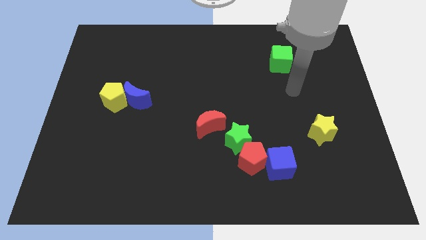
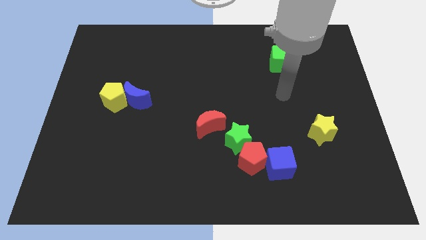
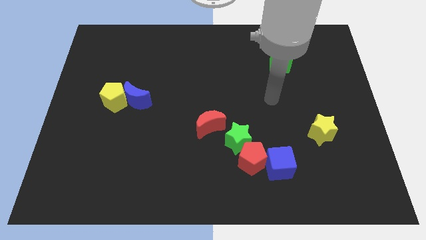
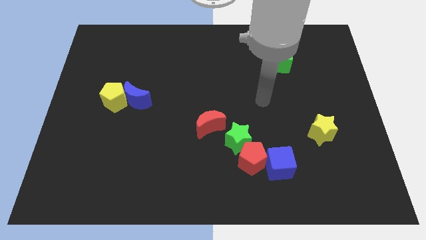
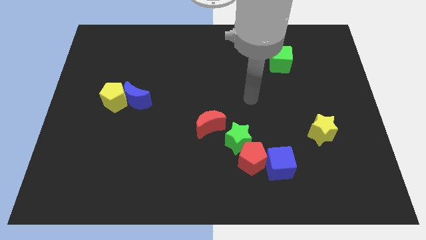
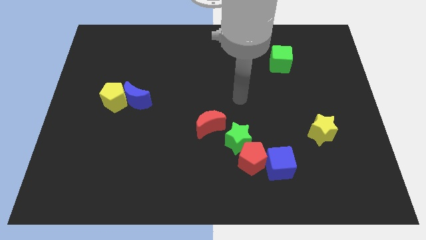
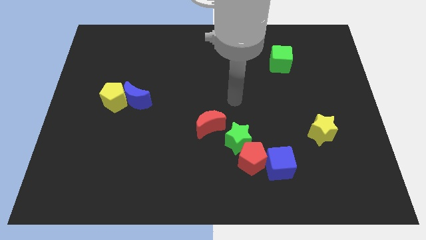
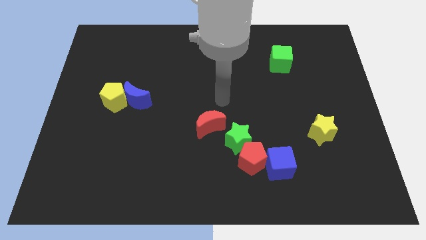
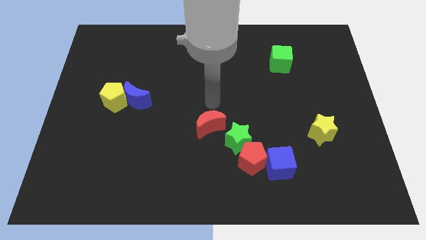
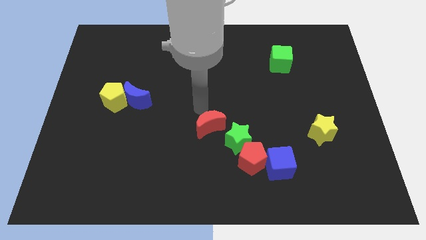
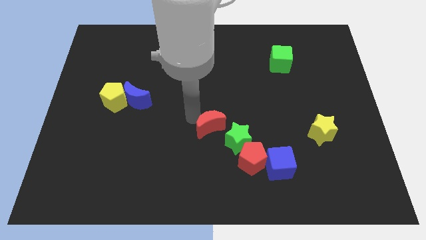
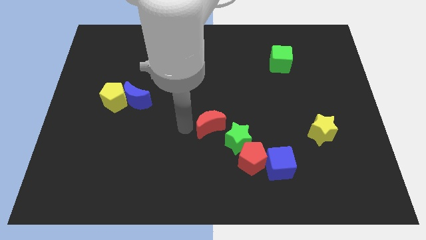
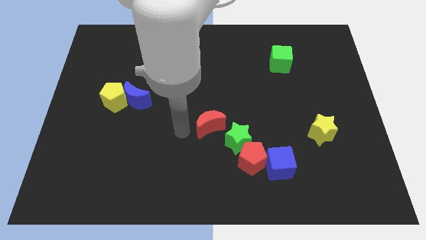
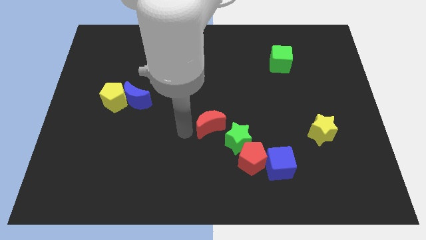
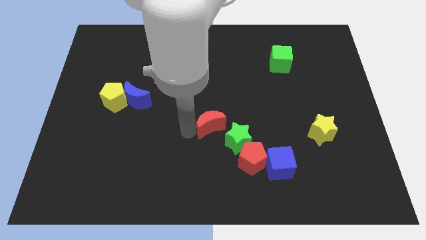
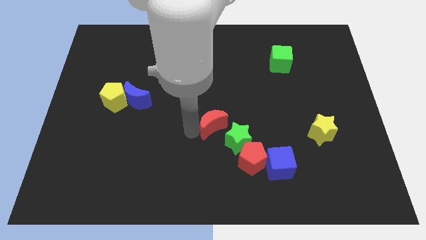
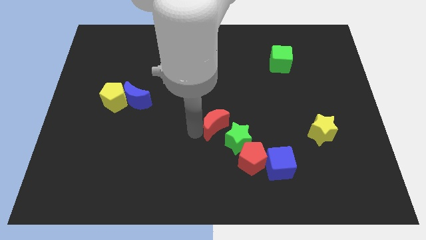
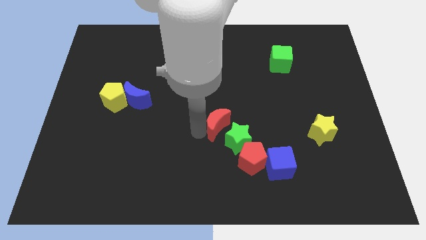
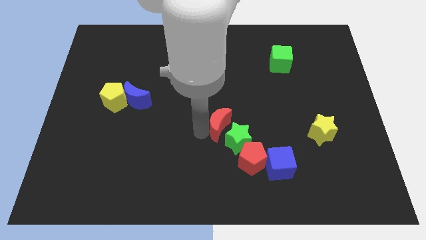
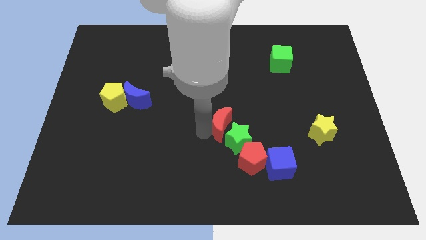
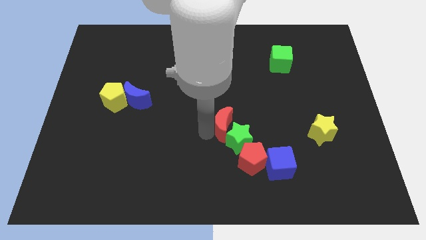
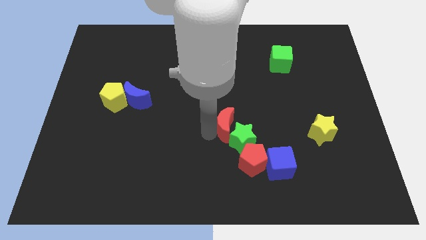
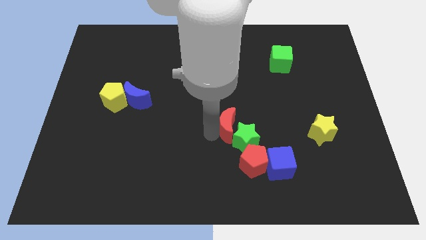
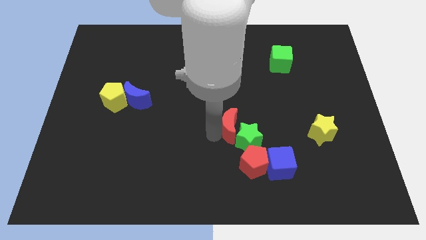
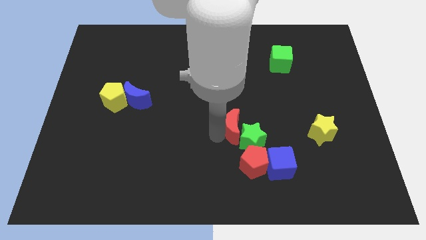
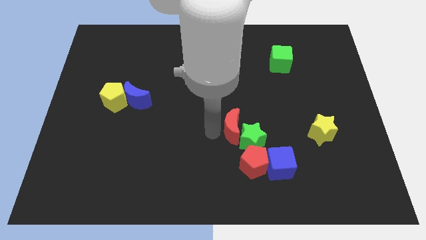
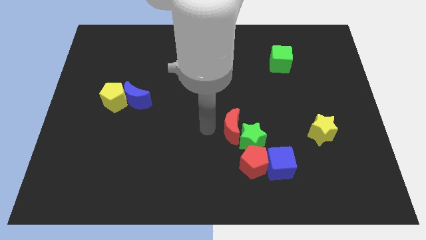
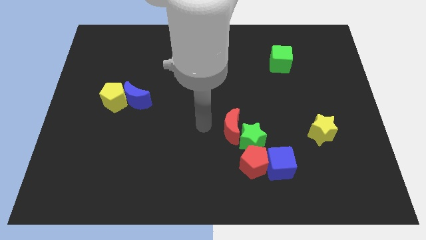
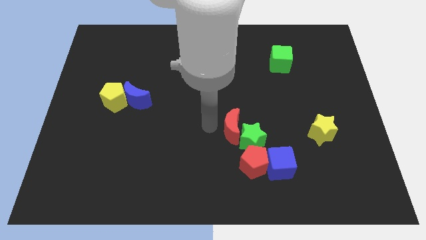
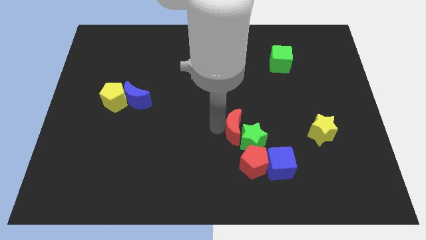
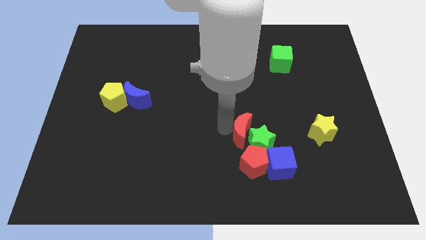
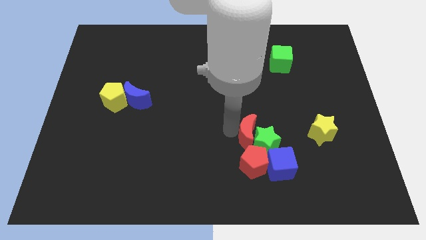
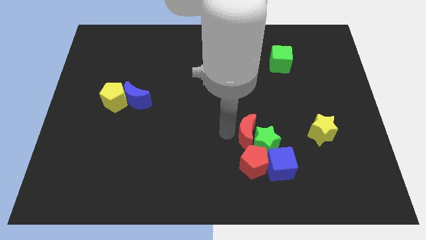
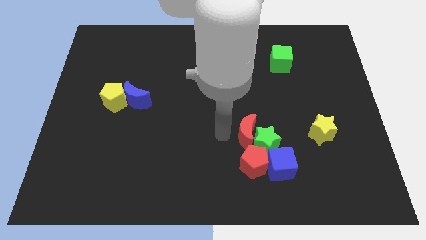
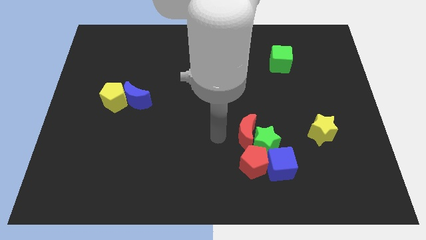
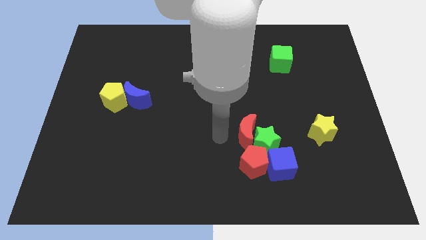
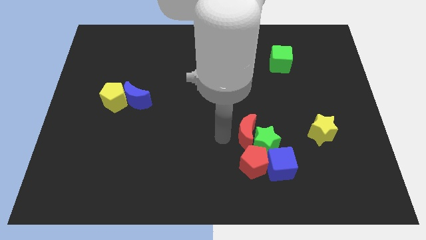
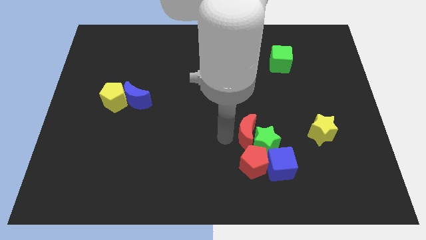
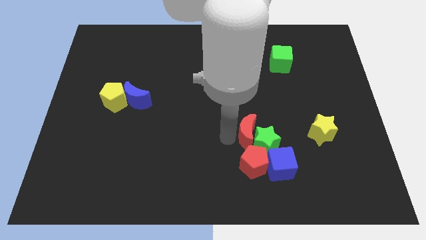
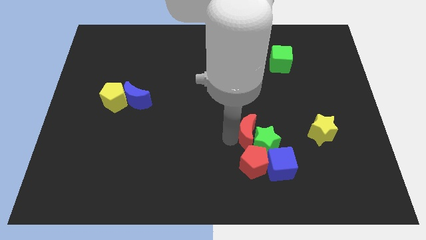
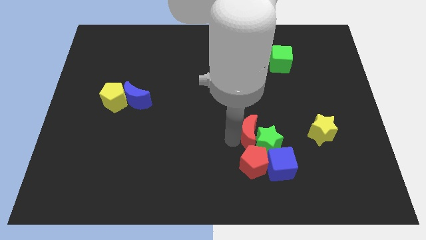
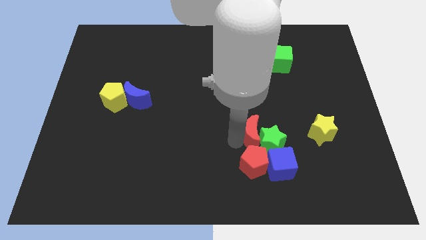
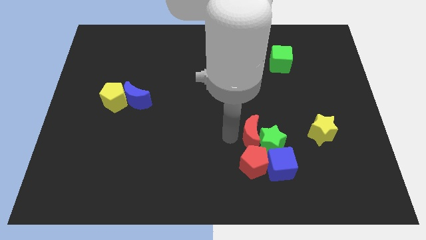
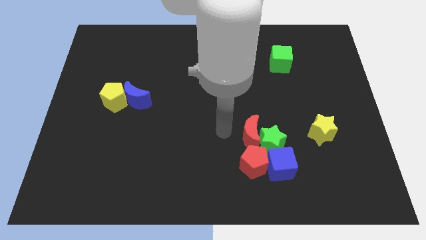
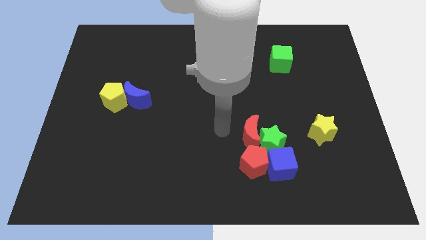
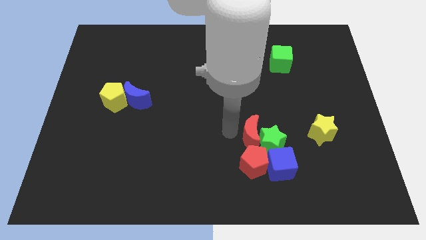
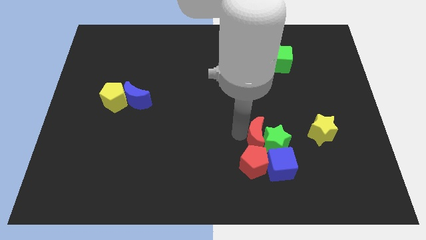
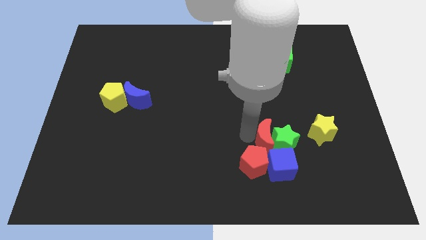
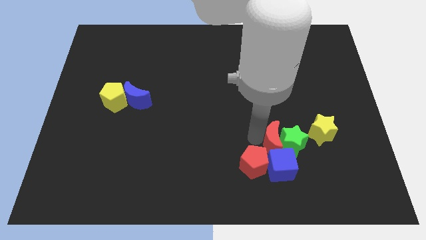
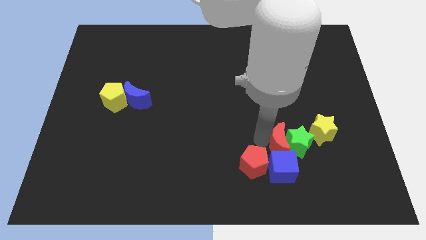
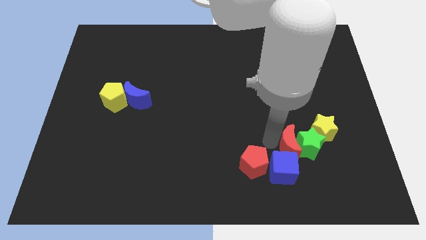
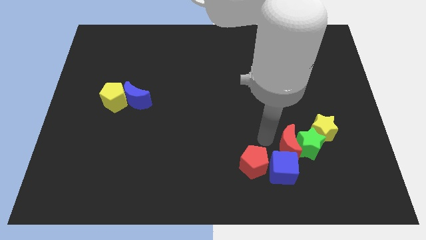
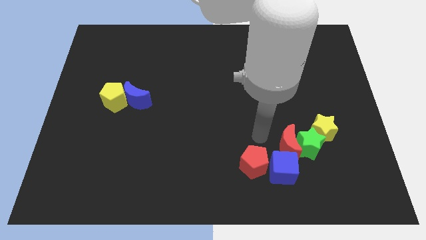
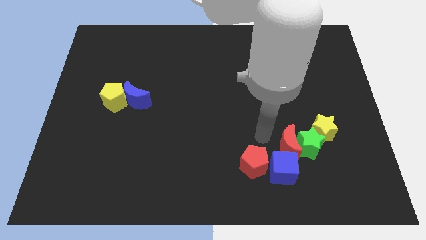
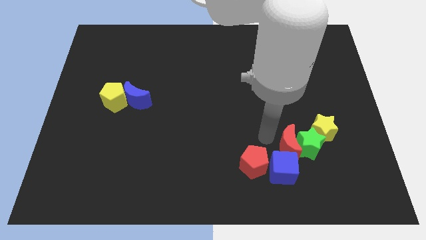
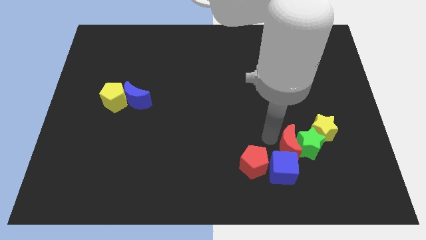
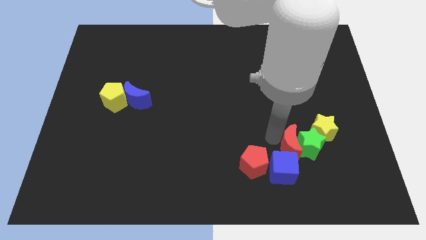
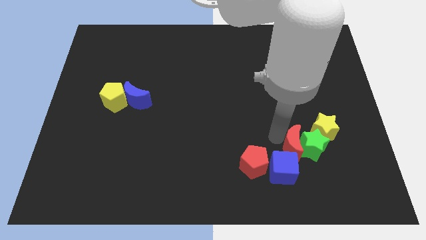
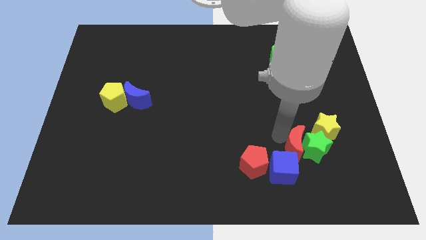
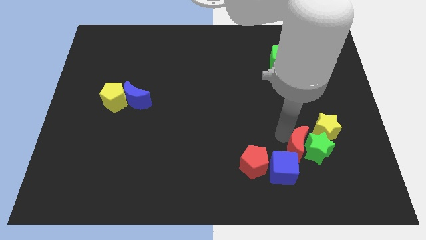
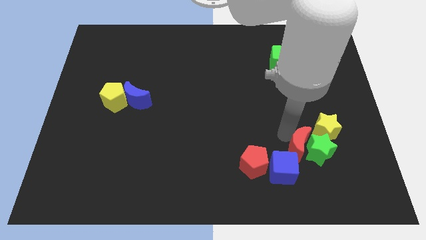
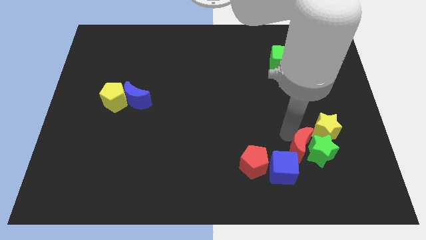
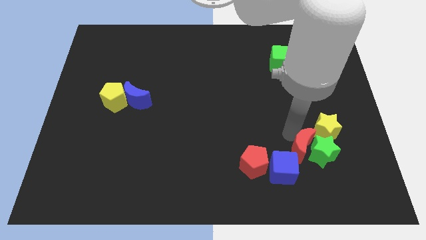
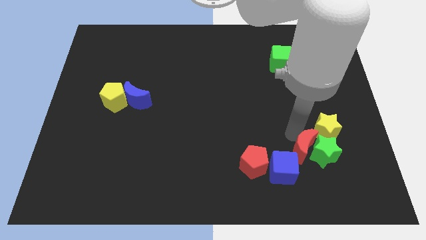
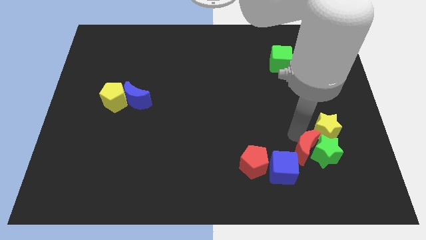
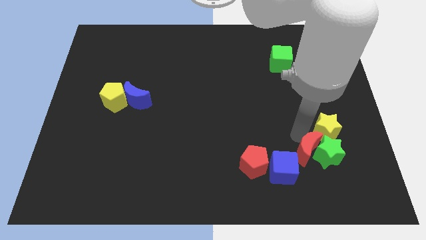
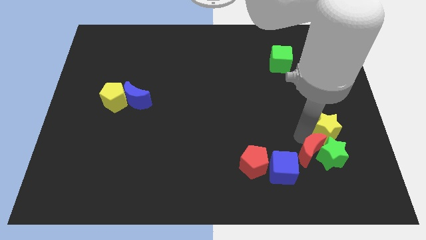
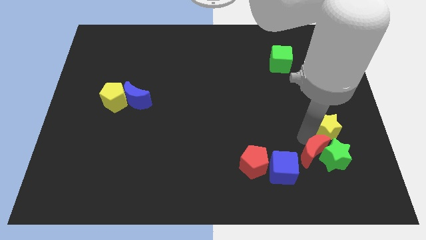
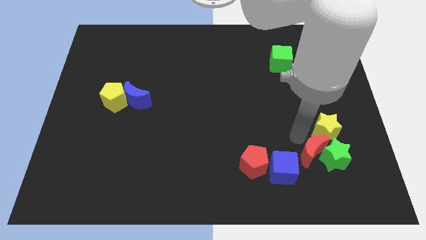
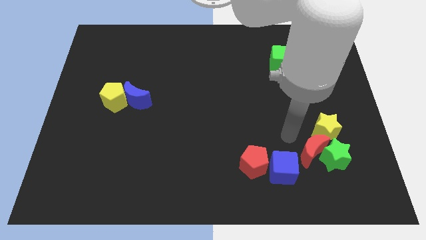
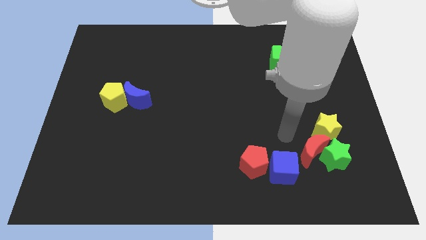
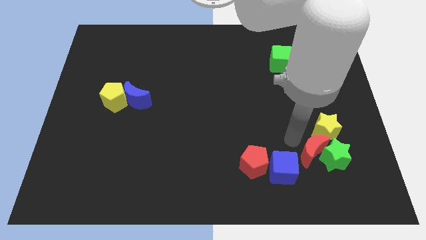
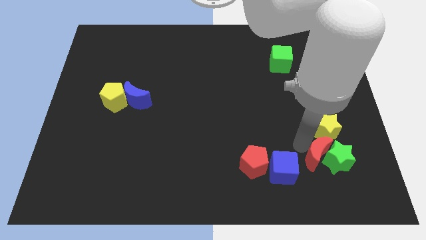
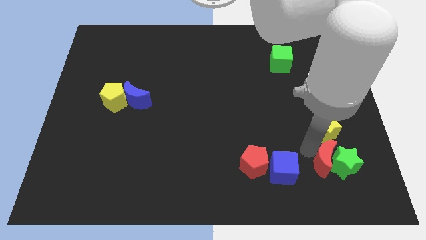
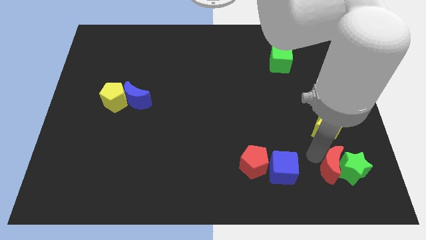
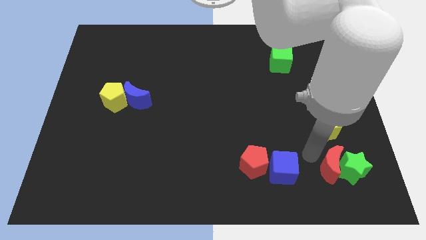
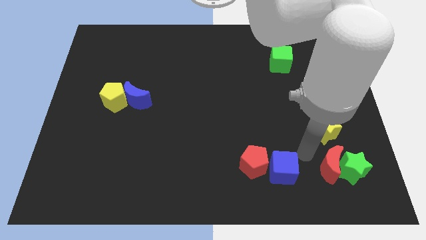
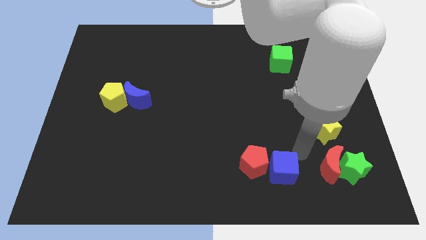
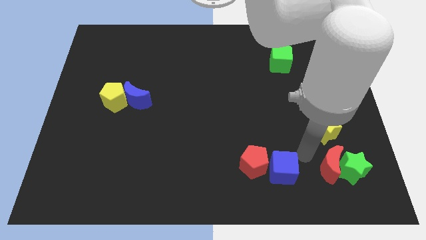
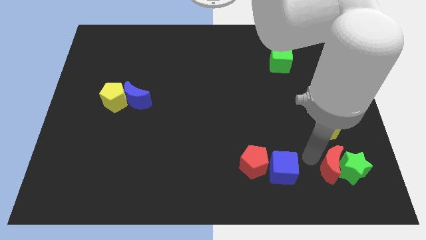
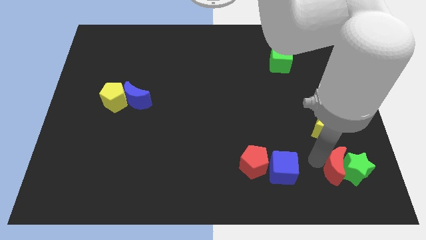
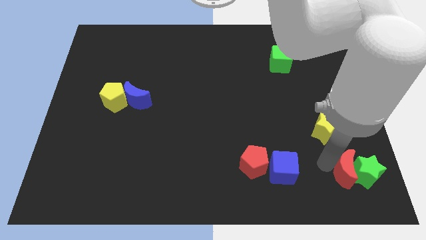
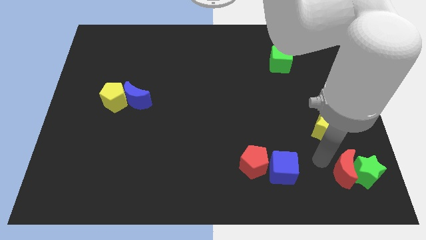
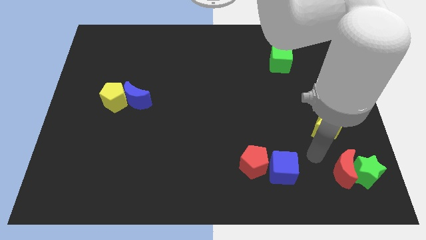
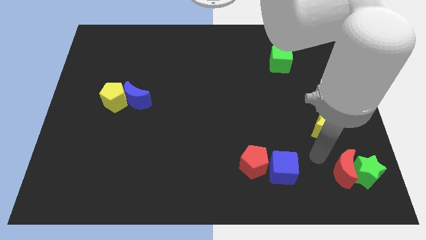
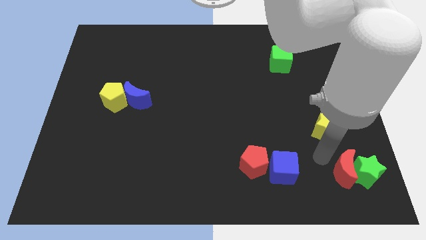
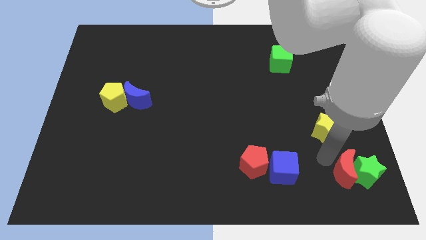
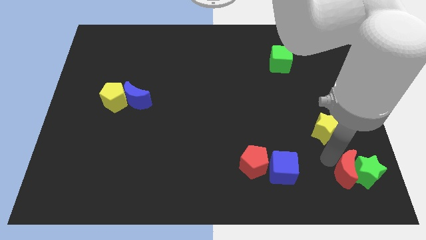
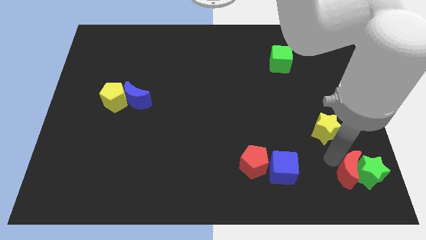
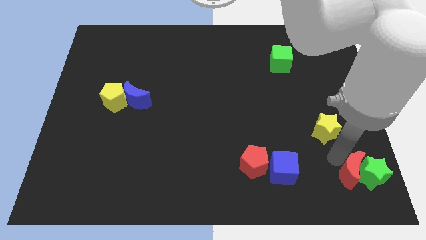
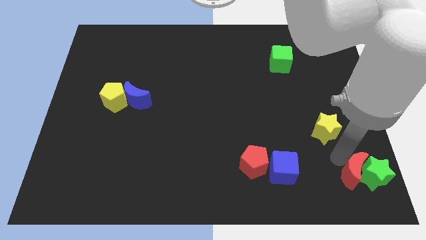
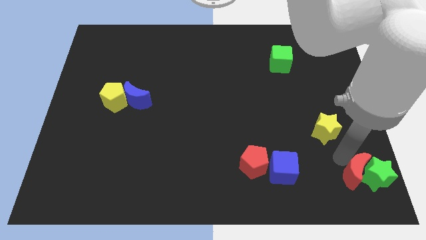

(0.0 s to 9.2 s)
push the red moon to the lower right corner
